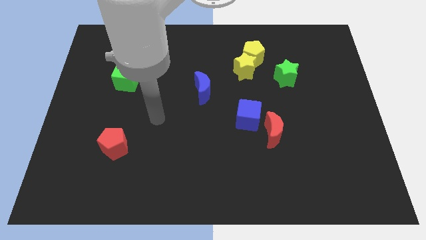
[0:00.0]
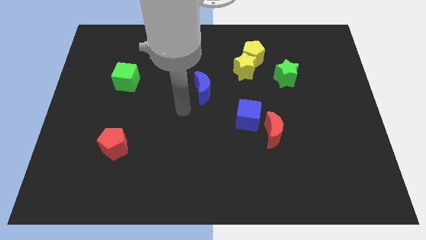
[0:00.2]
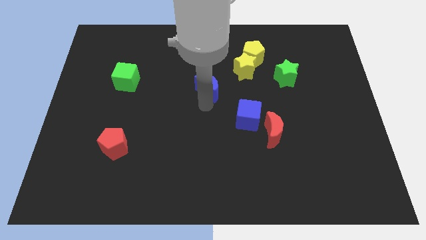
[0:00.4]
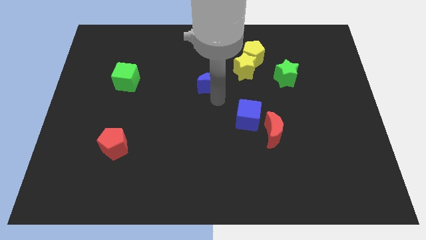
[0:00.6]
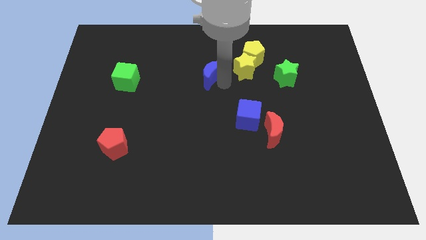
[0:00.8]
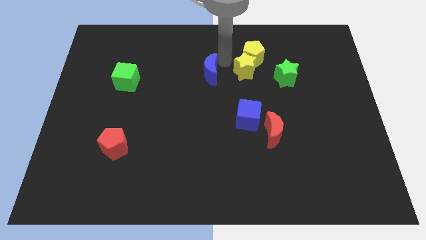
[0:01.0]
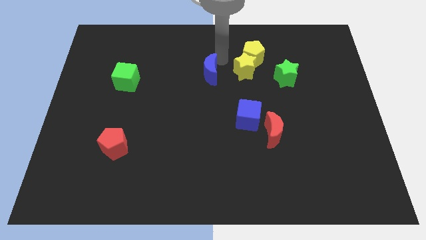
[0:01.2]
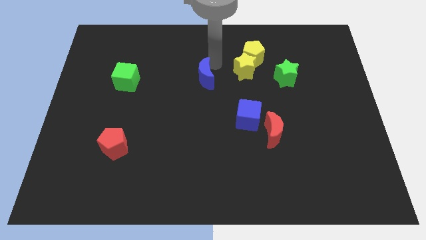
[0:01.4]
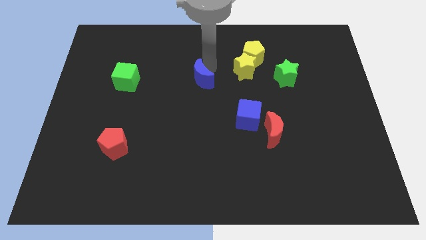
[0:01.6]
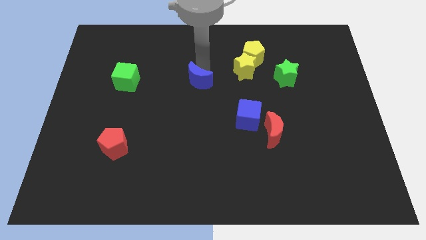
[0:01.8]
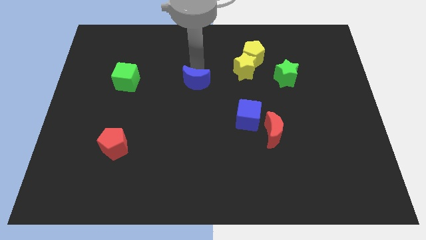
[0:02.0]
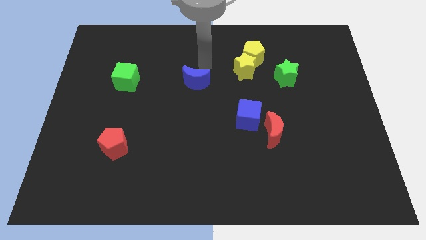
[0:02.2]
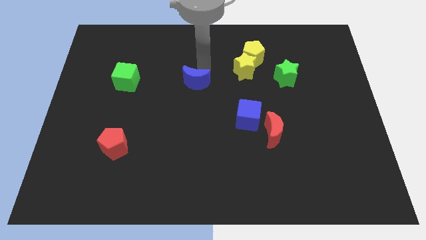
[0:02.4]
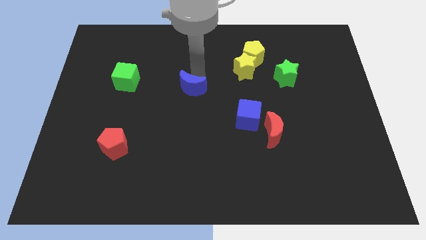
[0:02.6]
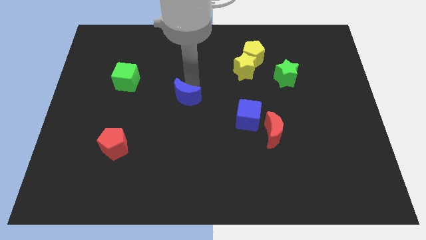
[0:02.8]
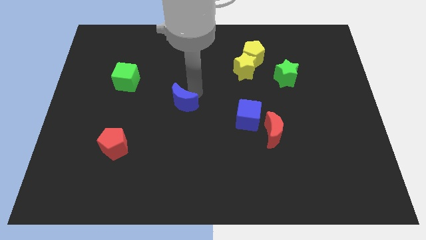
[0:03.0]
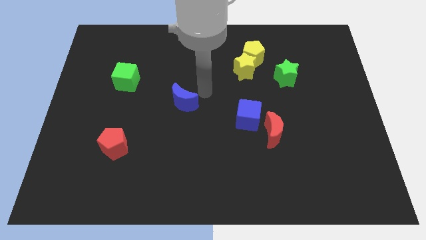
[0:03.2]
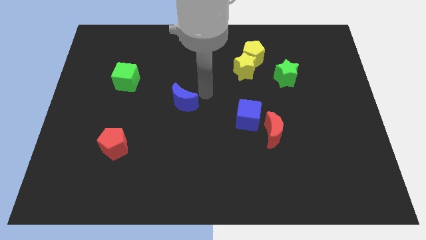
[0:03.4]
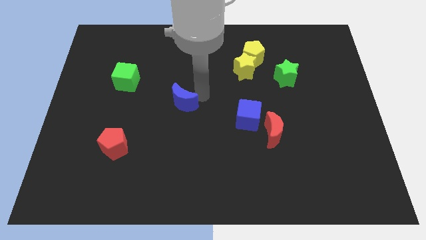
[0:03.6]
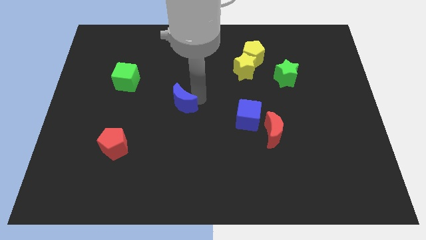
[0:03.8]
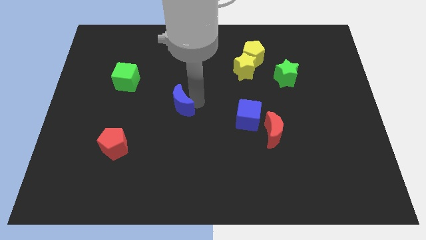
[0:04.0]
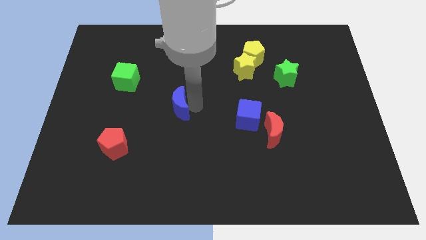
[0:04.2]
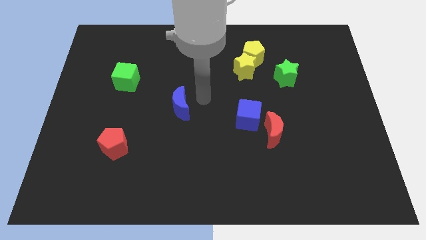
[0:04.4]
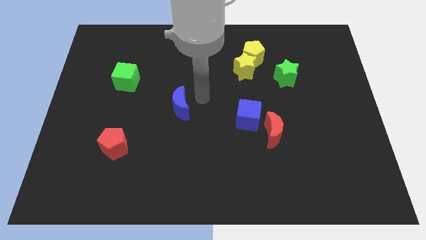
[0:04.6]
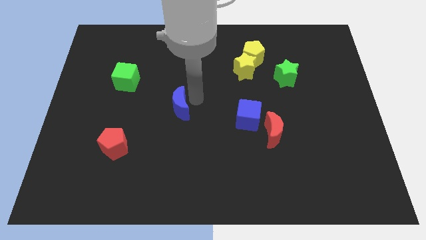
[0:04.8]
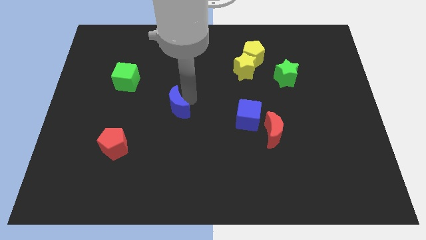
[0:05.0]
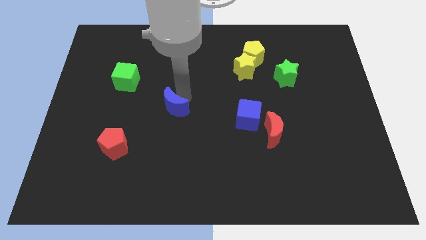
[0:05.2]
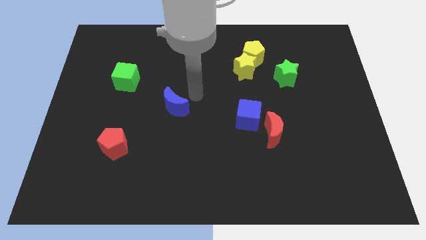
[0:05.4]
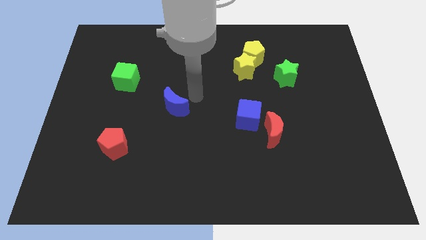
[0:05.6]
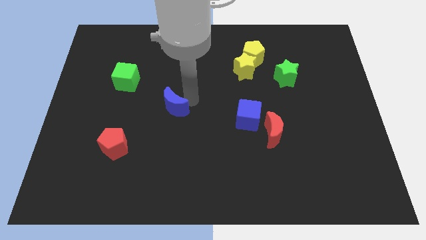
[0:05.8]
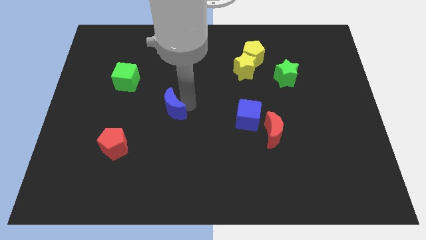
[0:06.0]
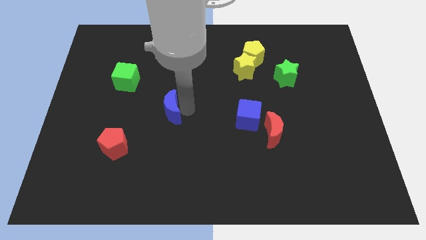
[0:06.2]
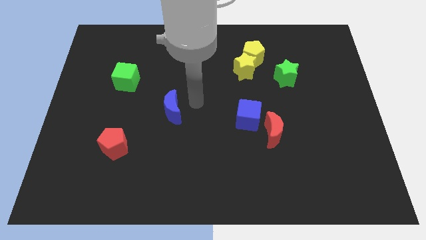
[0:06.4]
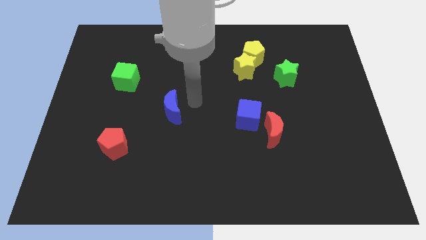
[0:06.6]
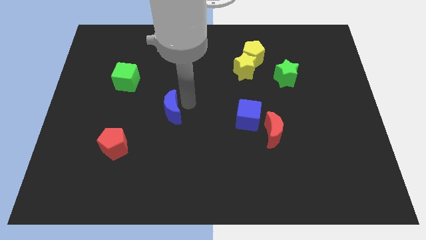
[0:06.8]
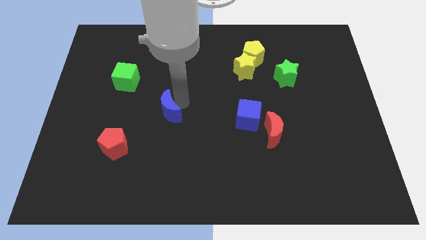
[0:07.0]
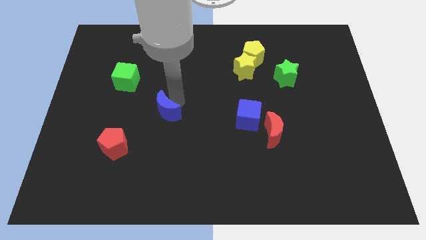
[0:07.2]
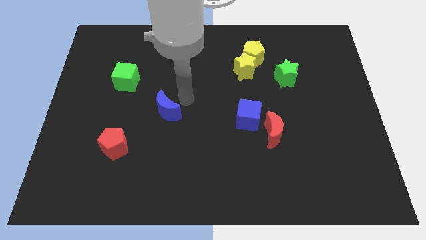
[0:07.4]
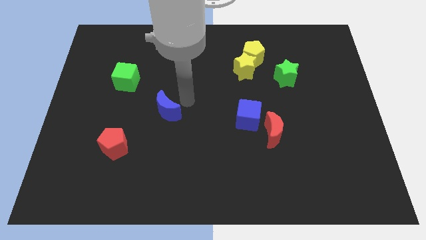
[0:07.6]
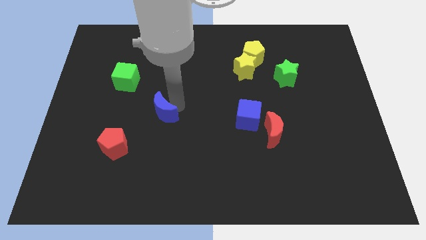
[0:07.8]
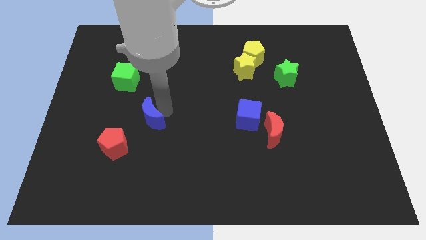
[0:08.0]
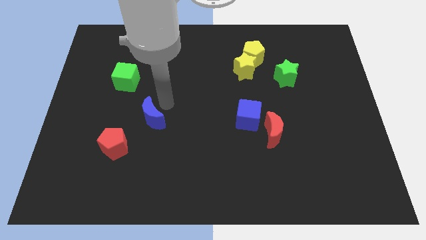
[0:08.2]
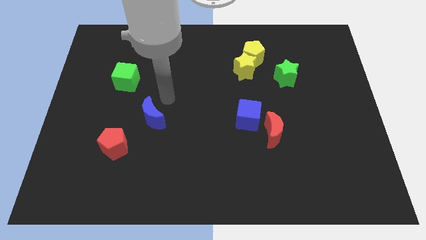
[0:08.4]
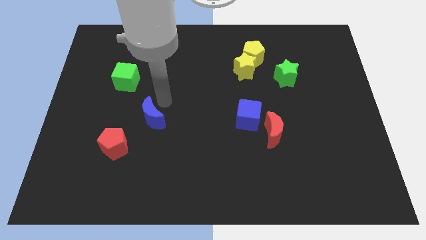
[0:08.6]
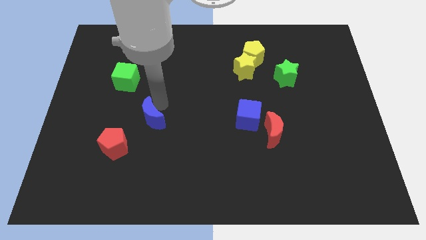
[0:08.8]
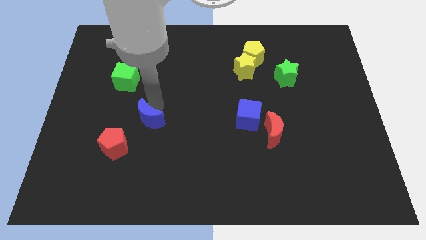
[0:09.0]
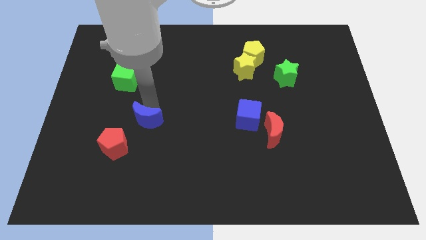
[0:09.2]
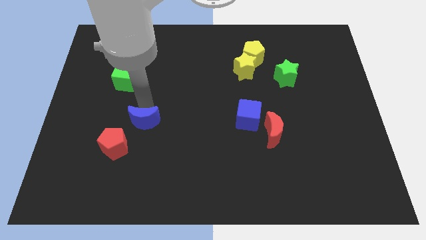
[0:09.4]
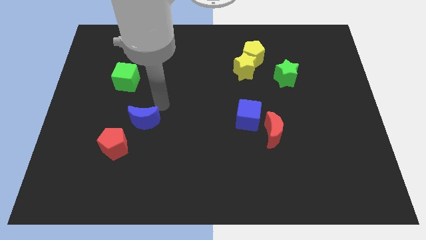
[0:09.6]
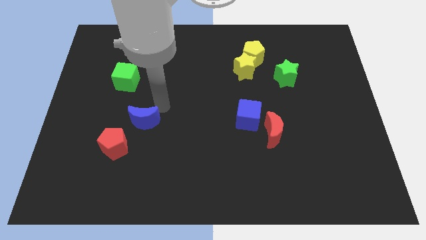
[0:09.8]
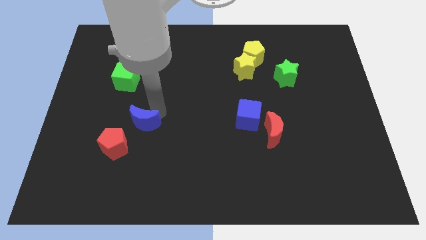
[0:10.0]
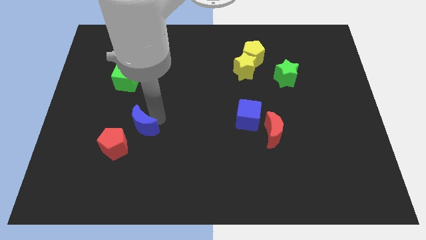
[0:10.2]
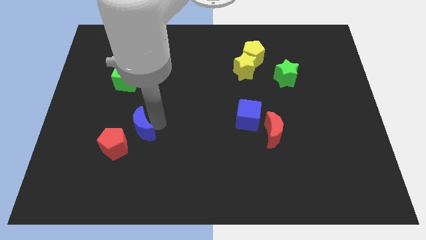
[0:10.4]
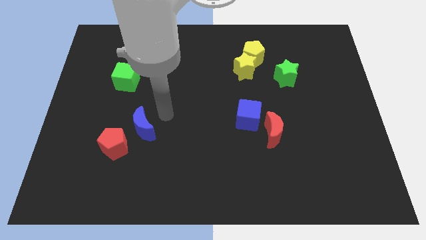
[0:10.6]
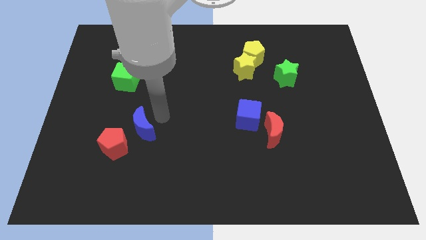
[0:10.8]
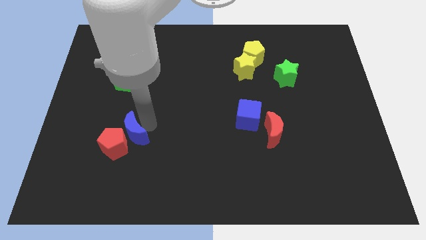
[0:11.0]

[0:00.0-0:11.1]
slide the blue moon next to the red pentagon

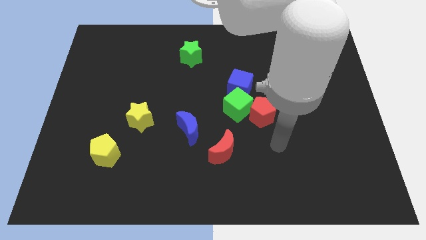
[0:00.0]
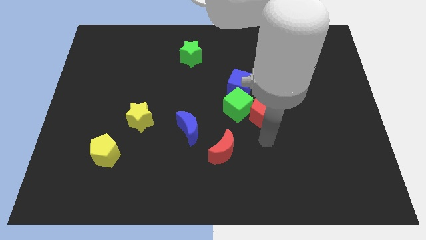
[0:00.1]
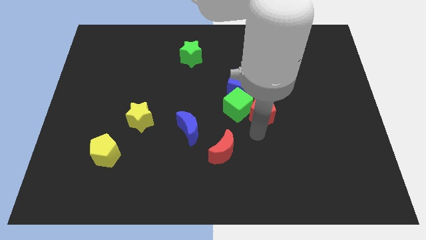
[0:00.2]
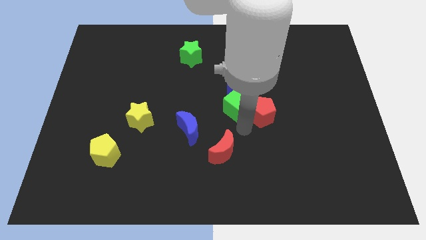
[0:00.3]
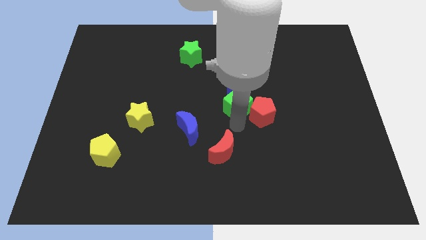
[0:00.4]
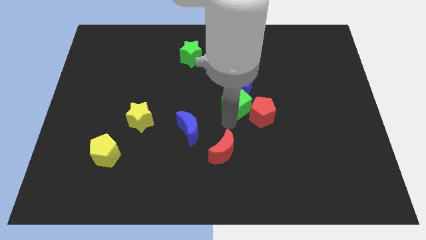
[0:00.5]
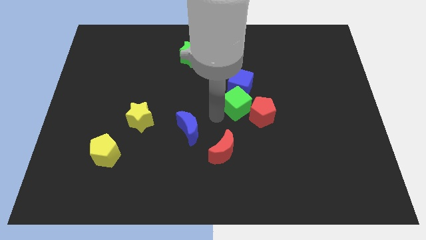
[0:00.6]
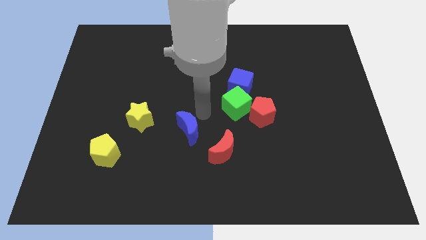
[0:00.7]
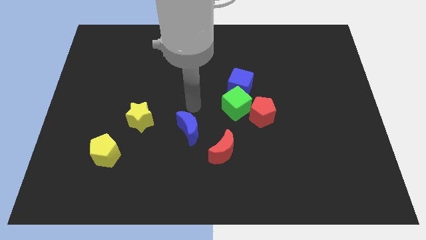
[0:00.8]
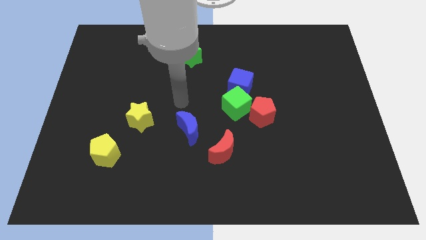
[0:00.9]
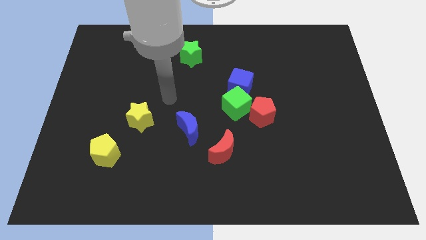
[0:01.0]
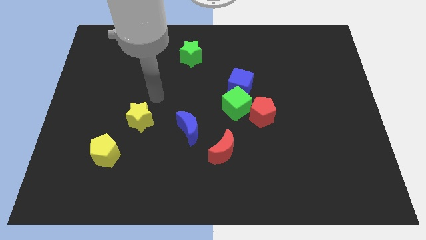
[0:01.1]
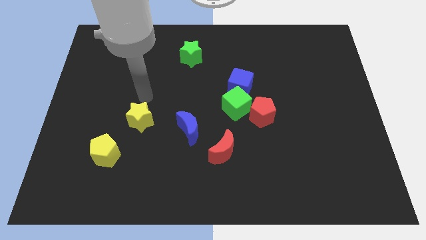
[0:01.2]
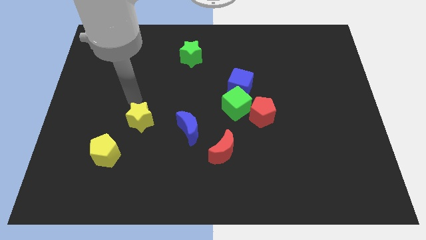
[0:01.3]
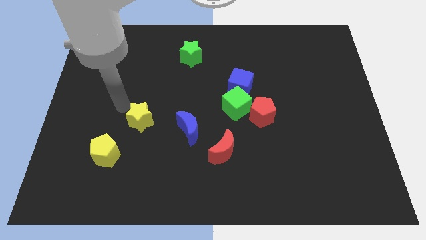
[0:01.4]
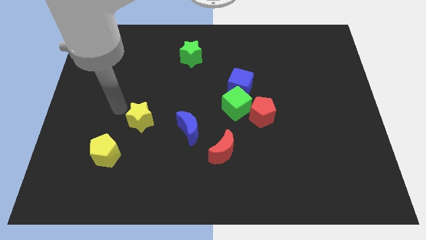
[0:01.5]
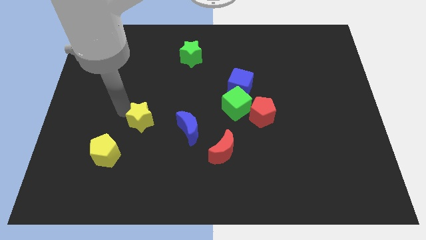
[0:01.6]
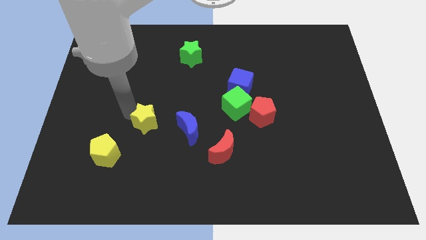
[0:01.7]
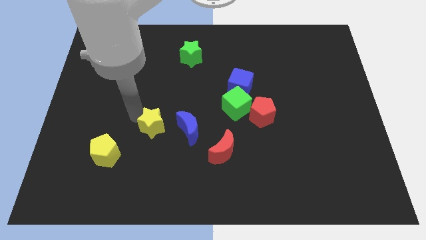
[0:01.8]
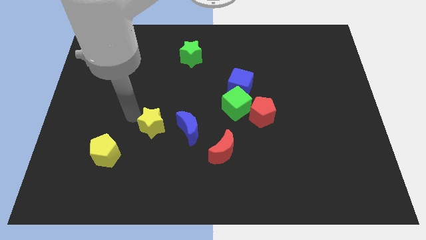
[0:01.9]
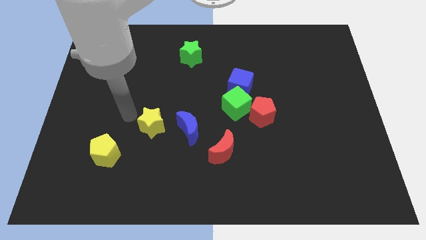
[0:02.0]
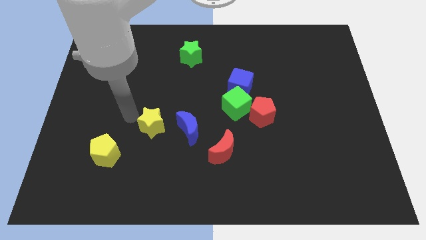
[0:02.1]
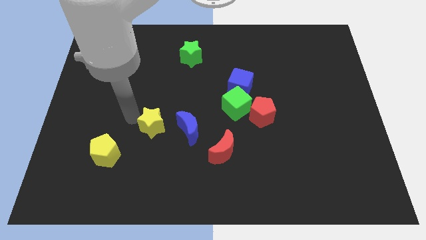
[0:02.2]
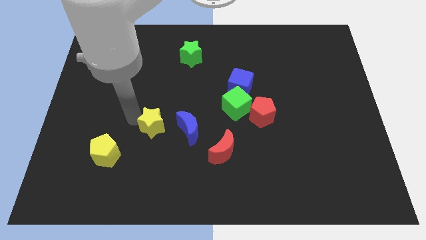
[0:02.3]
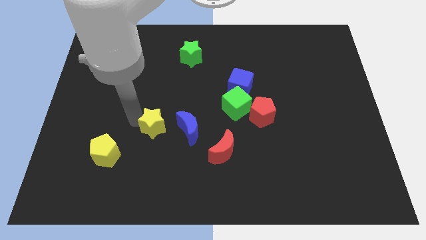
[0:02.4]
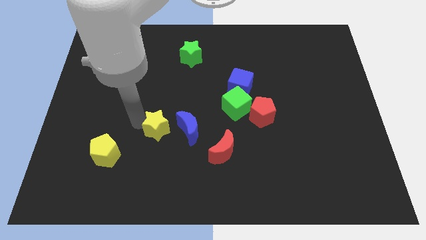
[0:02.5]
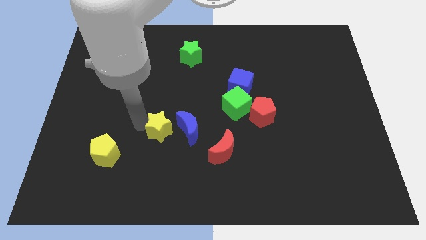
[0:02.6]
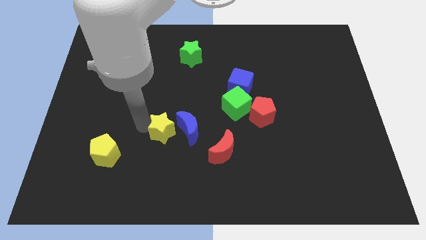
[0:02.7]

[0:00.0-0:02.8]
push the yellow star to the blue moon
